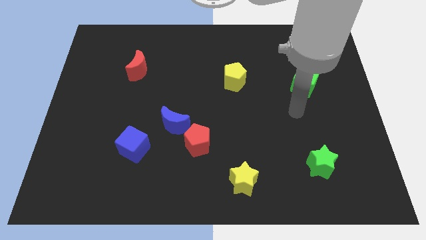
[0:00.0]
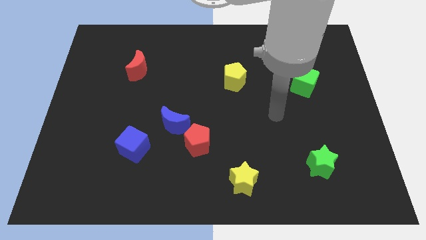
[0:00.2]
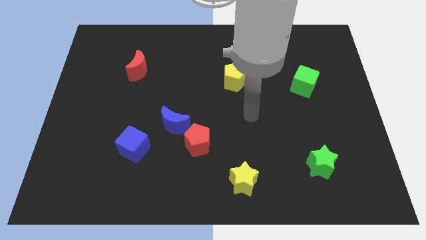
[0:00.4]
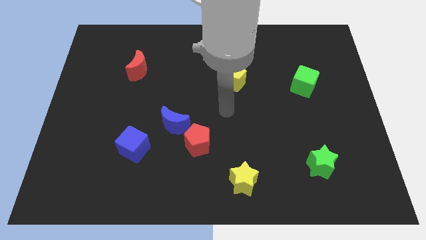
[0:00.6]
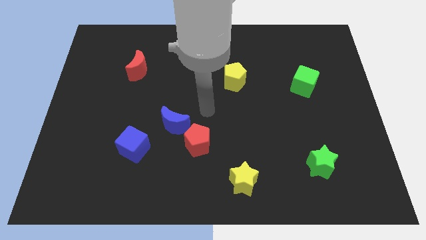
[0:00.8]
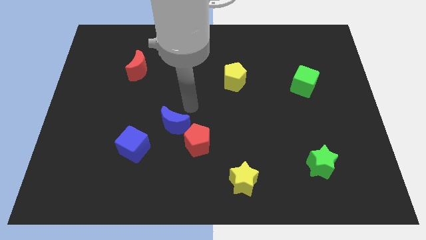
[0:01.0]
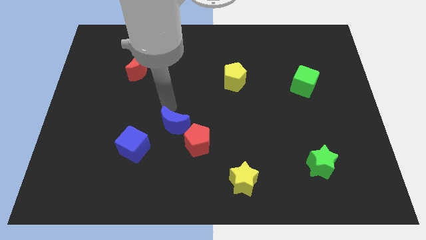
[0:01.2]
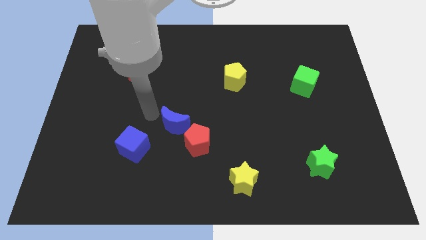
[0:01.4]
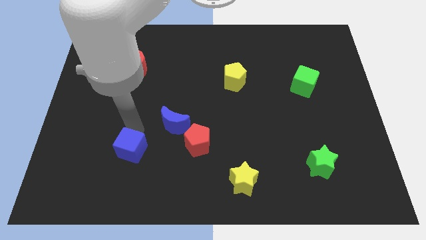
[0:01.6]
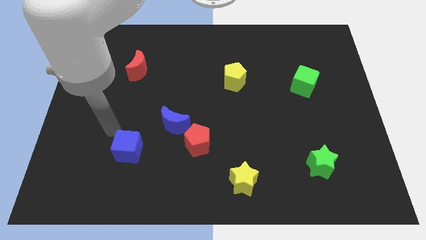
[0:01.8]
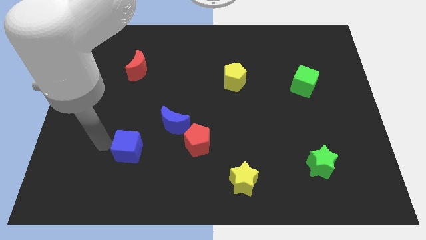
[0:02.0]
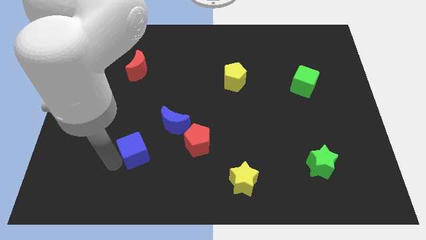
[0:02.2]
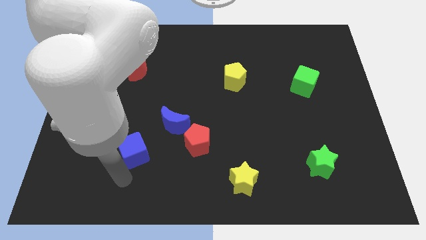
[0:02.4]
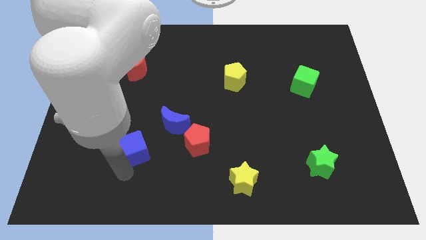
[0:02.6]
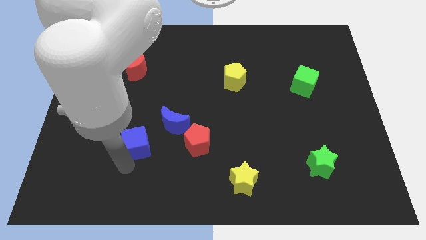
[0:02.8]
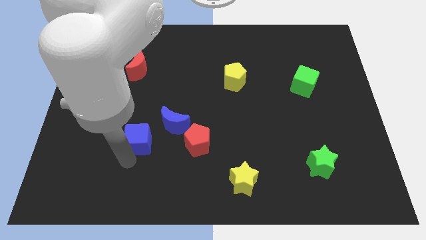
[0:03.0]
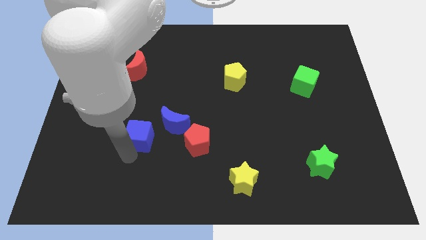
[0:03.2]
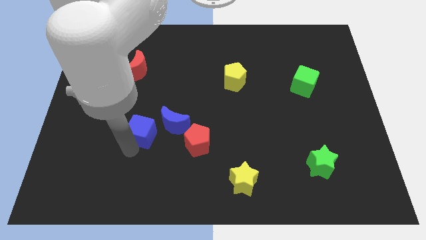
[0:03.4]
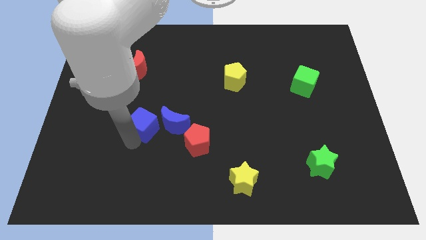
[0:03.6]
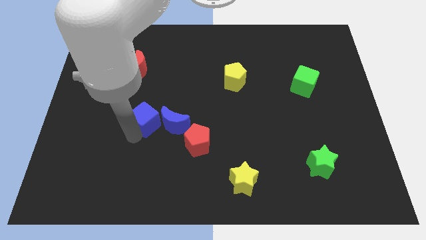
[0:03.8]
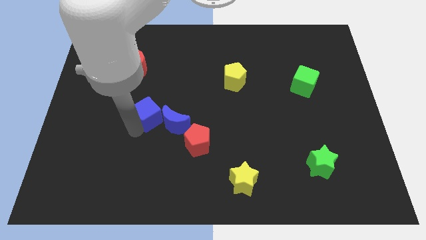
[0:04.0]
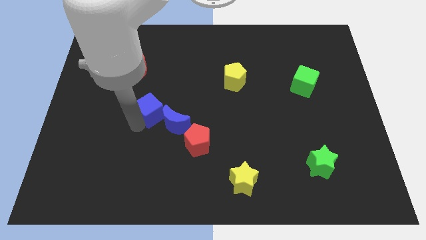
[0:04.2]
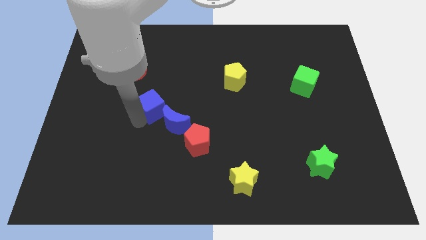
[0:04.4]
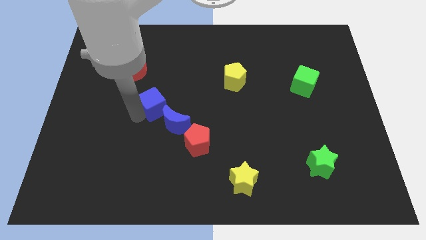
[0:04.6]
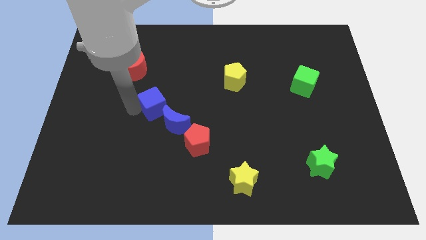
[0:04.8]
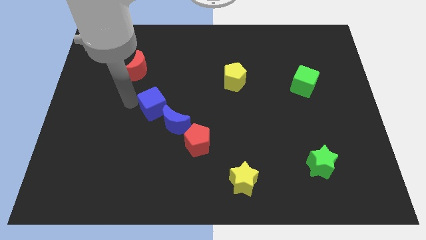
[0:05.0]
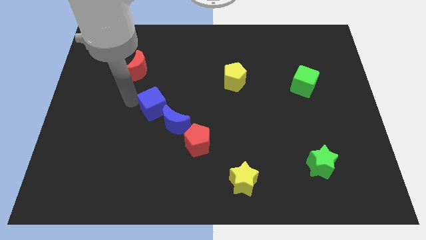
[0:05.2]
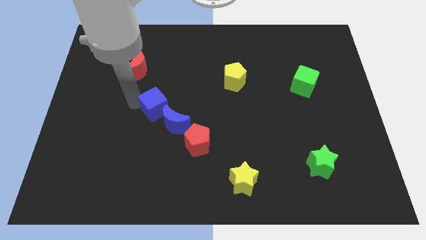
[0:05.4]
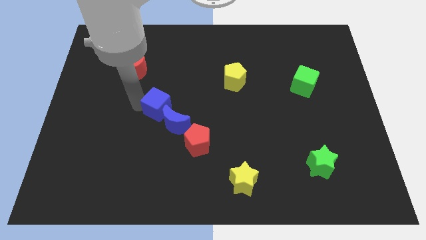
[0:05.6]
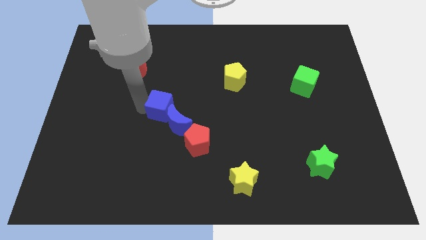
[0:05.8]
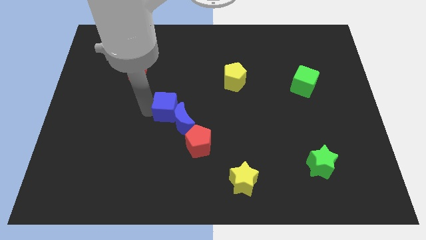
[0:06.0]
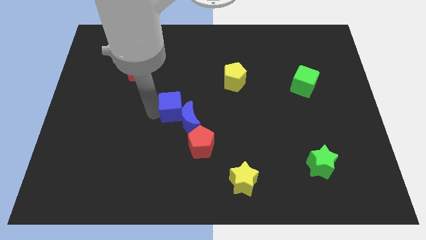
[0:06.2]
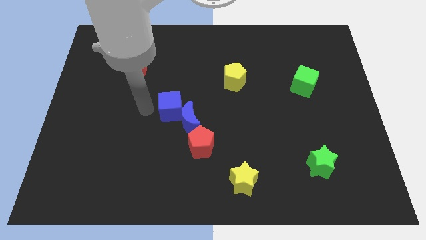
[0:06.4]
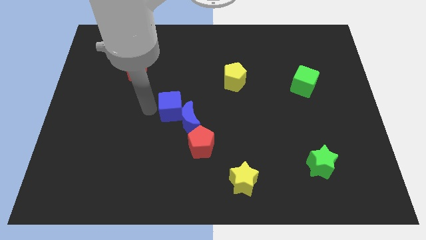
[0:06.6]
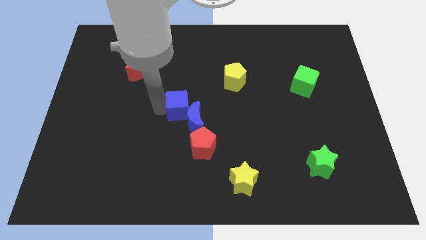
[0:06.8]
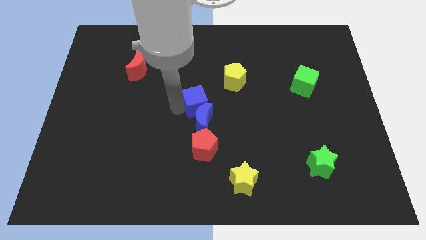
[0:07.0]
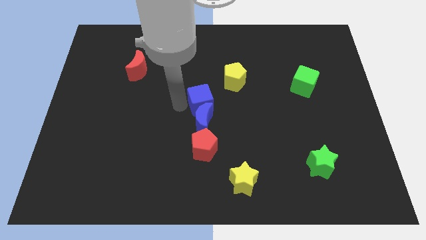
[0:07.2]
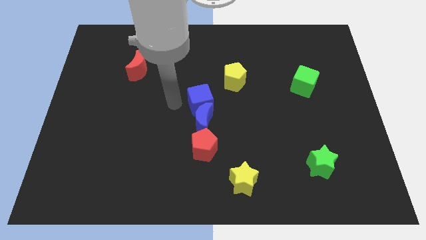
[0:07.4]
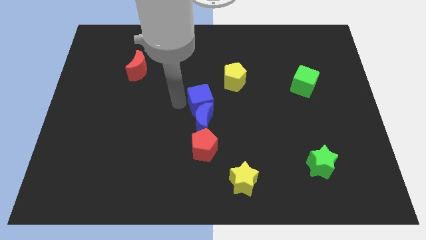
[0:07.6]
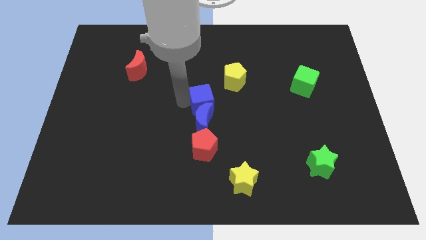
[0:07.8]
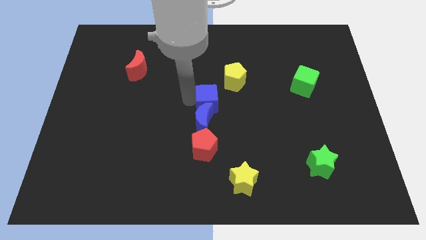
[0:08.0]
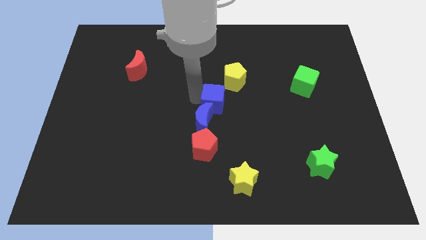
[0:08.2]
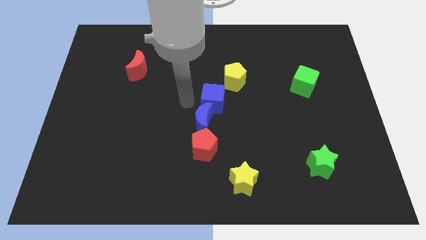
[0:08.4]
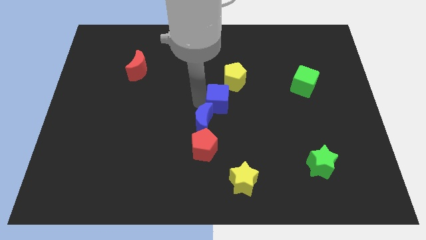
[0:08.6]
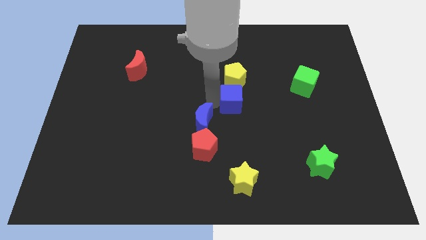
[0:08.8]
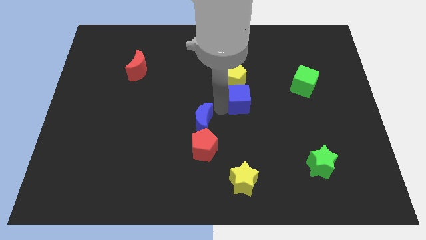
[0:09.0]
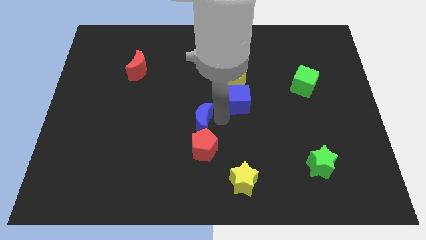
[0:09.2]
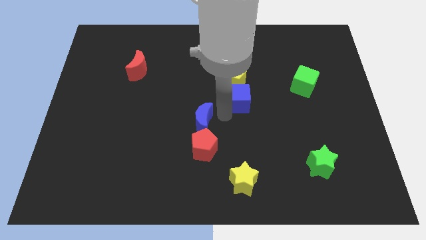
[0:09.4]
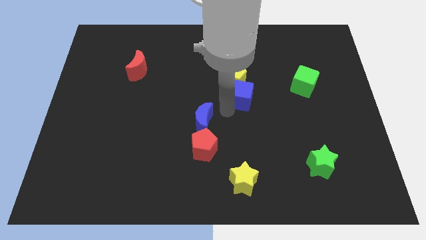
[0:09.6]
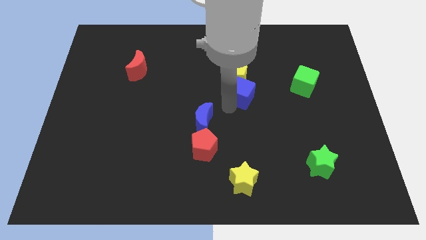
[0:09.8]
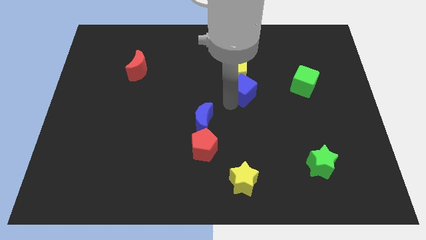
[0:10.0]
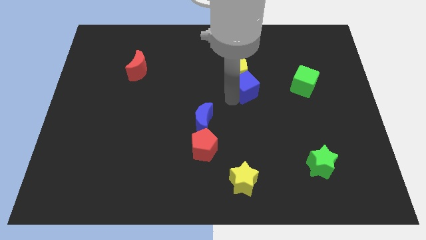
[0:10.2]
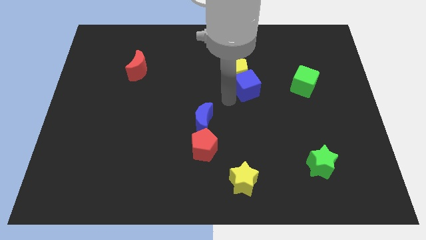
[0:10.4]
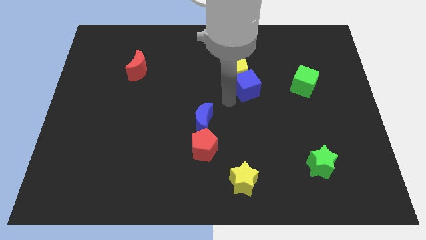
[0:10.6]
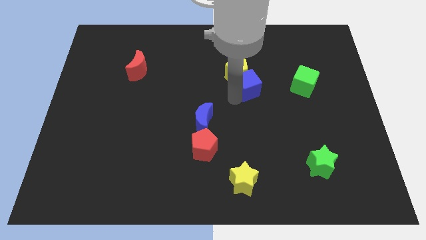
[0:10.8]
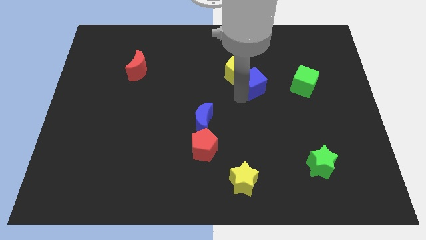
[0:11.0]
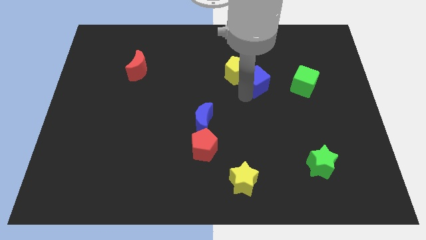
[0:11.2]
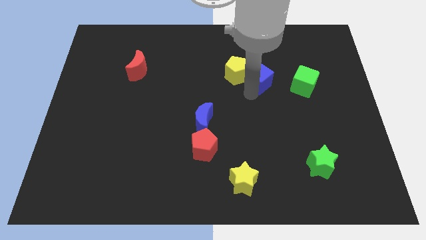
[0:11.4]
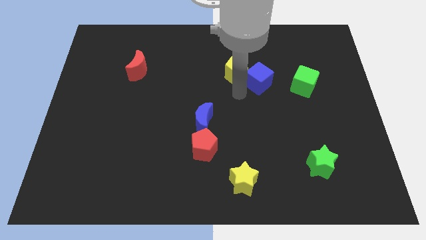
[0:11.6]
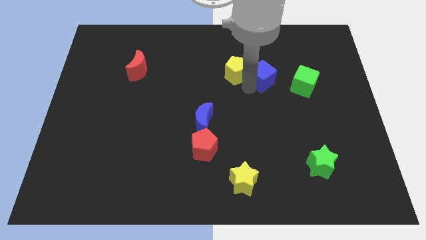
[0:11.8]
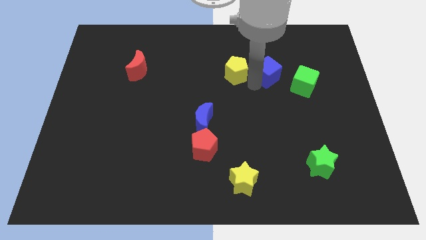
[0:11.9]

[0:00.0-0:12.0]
move the blue cube to the top left side of the green cube
